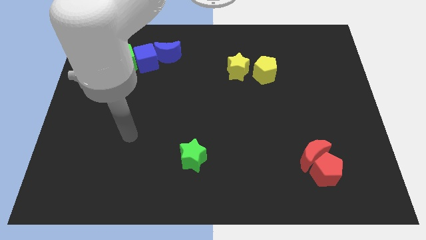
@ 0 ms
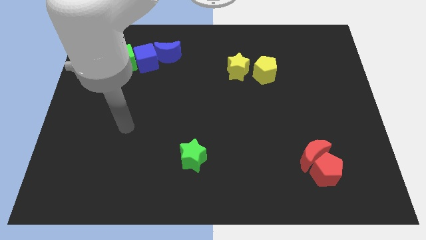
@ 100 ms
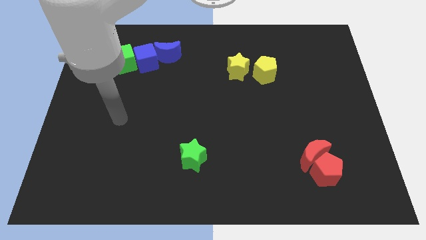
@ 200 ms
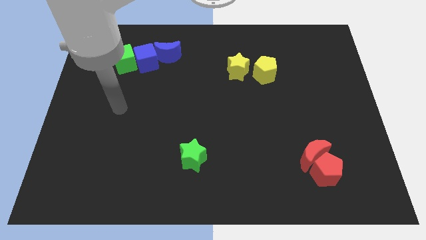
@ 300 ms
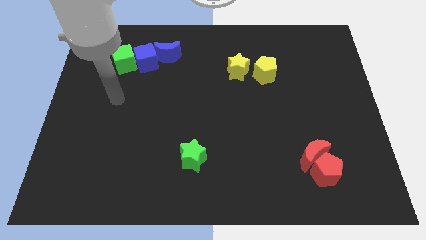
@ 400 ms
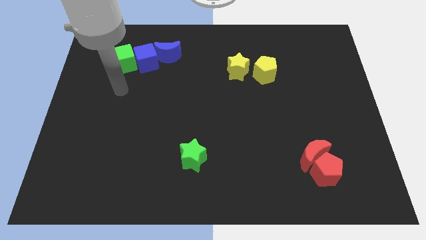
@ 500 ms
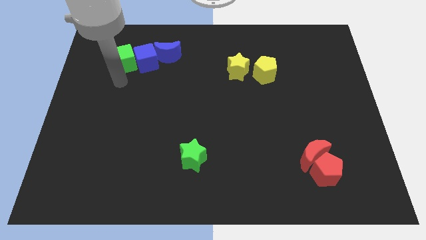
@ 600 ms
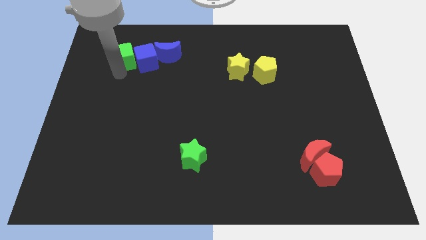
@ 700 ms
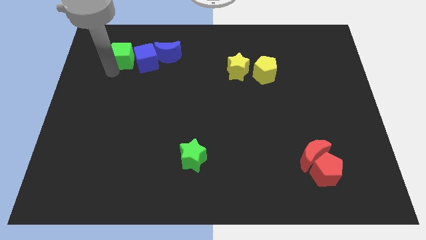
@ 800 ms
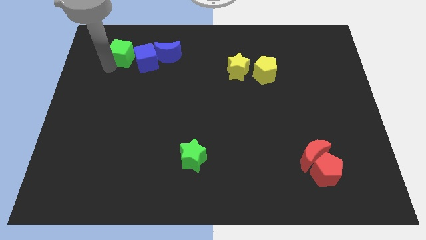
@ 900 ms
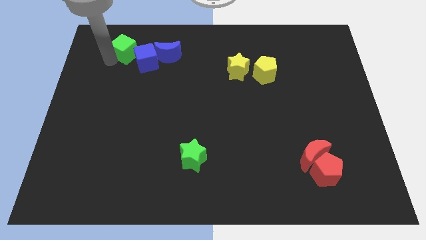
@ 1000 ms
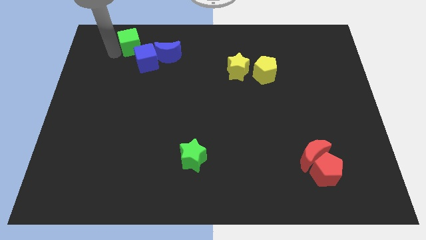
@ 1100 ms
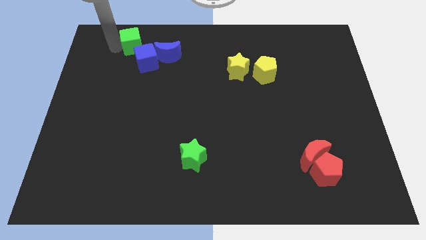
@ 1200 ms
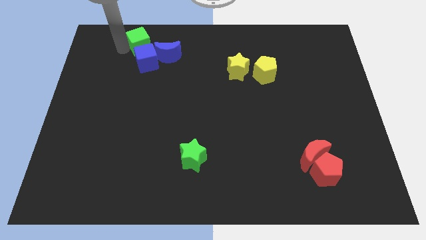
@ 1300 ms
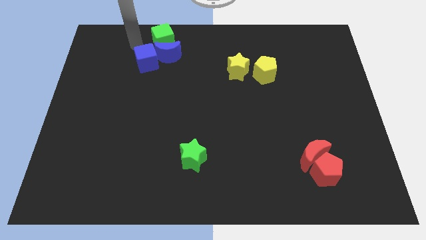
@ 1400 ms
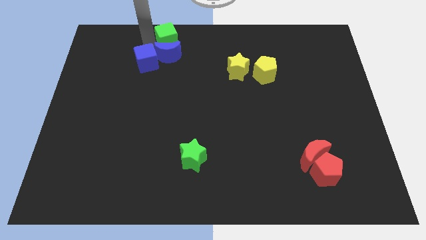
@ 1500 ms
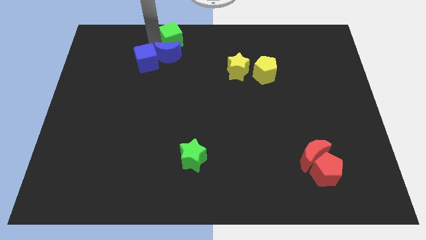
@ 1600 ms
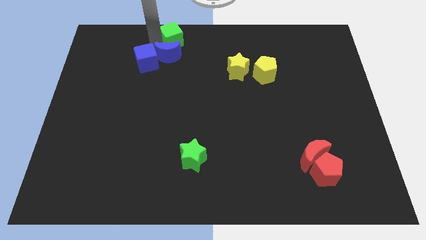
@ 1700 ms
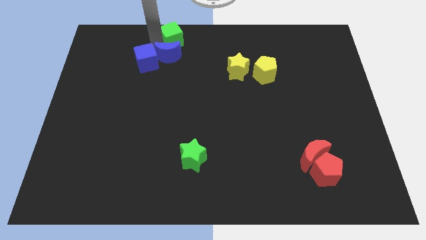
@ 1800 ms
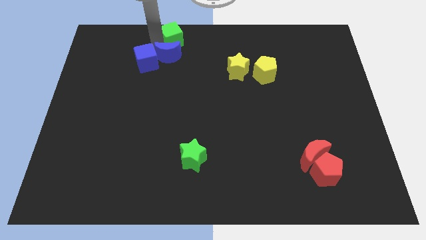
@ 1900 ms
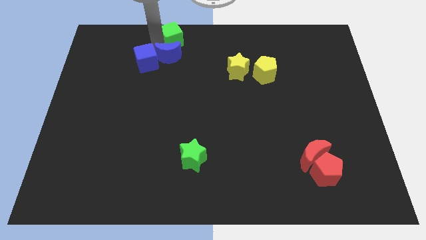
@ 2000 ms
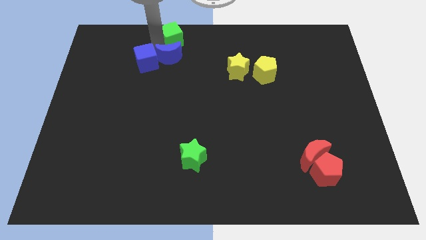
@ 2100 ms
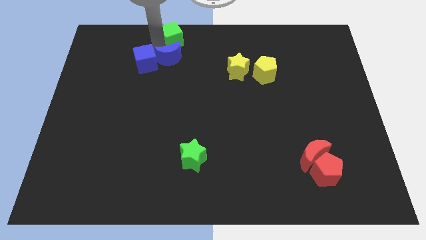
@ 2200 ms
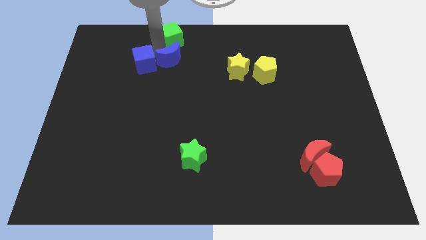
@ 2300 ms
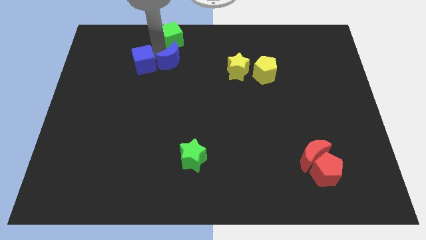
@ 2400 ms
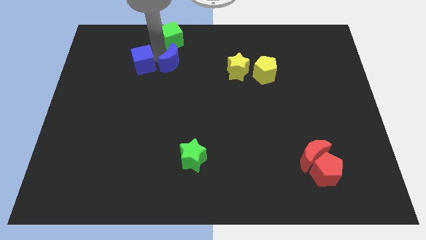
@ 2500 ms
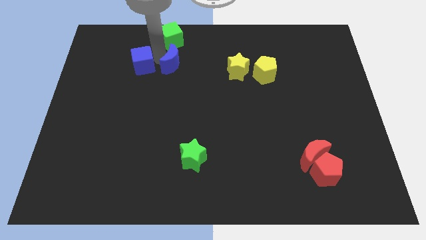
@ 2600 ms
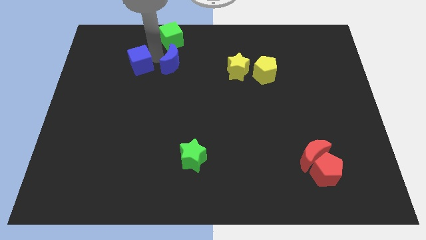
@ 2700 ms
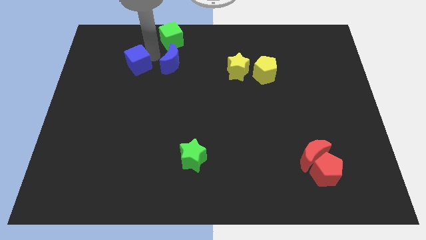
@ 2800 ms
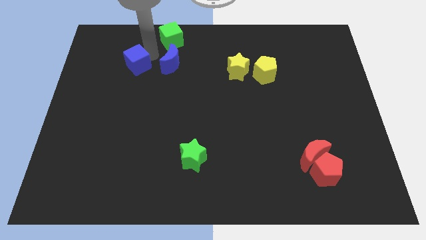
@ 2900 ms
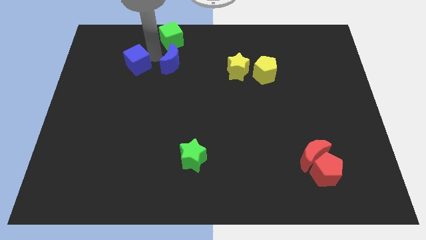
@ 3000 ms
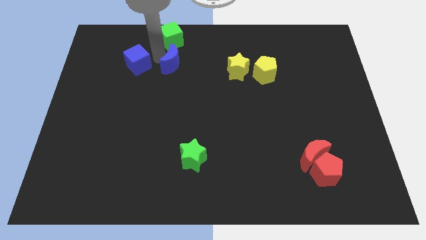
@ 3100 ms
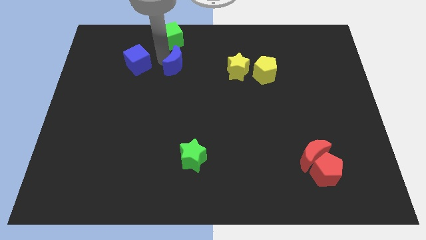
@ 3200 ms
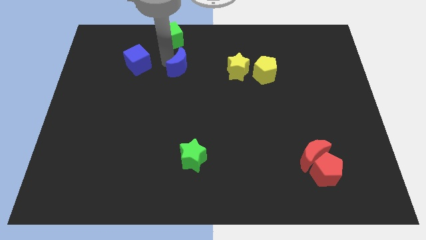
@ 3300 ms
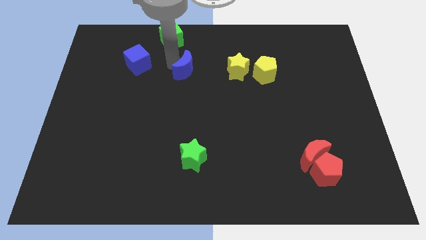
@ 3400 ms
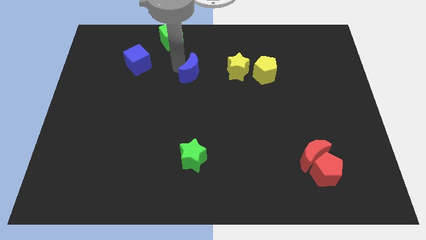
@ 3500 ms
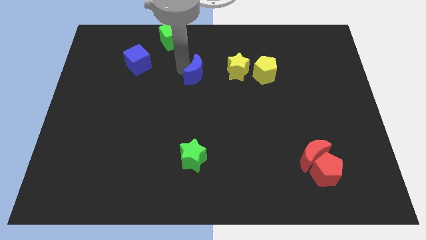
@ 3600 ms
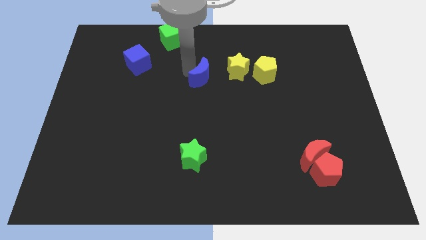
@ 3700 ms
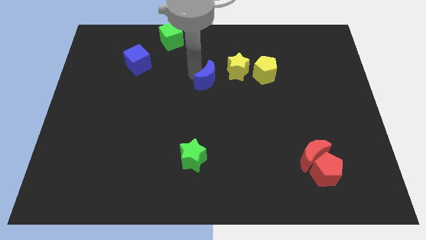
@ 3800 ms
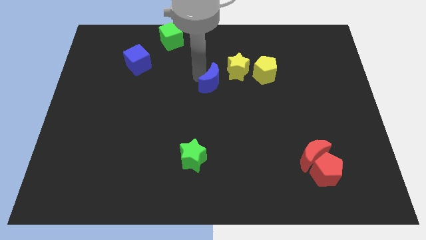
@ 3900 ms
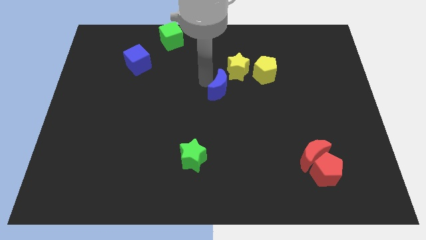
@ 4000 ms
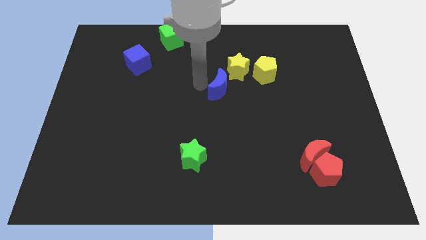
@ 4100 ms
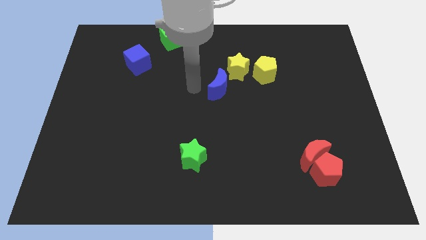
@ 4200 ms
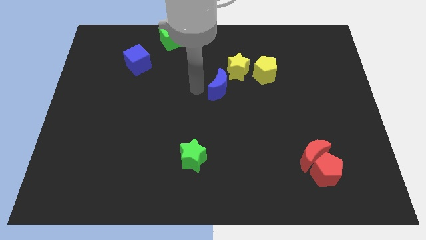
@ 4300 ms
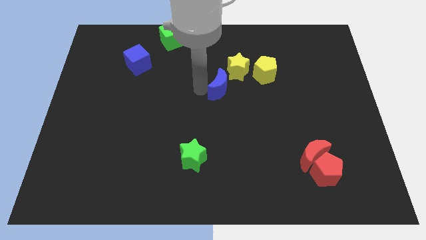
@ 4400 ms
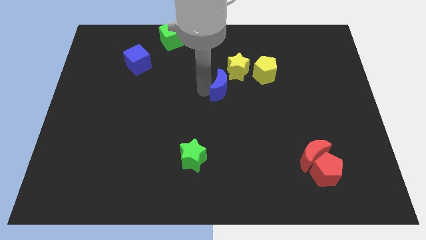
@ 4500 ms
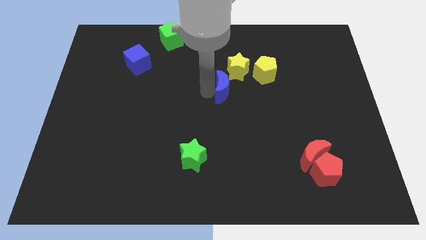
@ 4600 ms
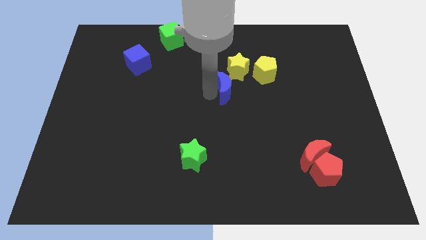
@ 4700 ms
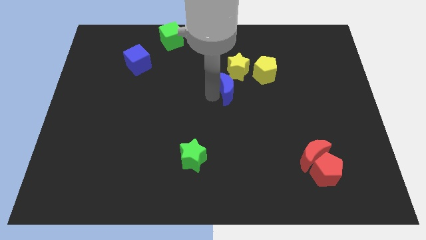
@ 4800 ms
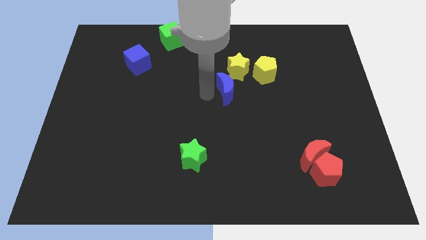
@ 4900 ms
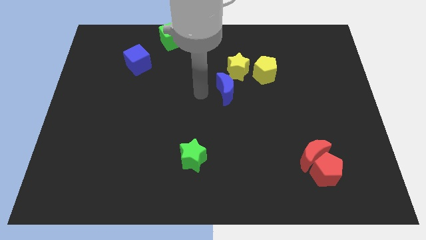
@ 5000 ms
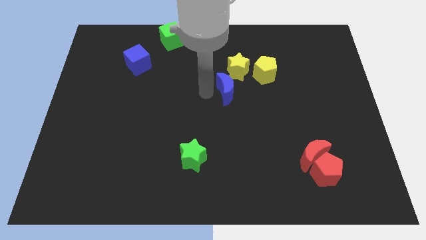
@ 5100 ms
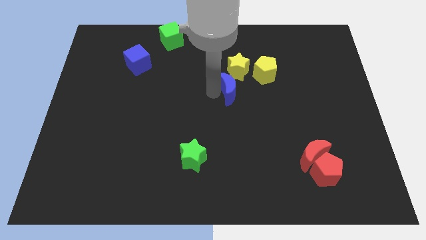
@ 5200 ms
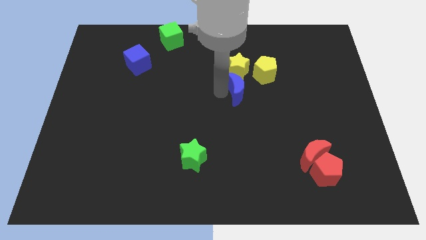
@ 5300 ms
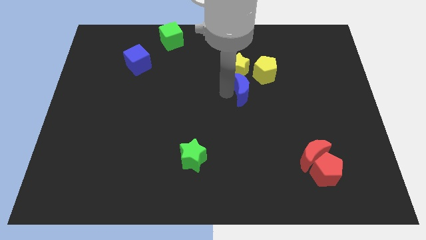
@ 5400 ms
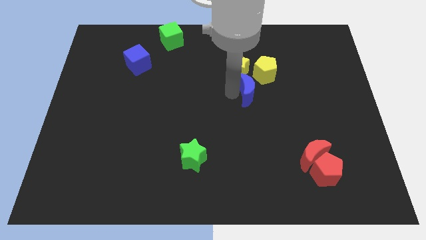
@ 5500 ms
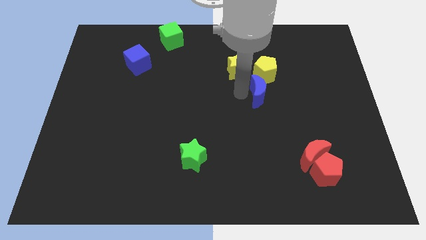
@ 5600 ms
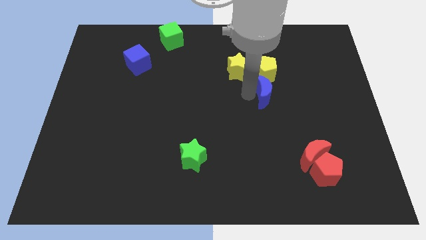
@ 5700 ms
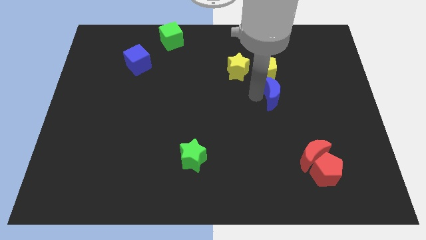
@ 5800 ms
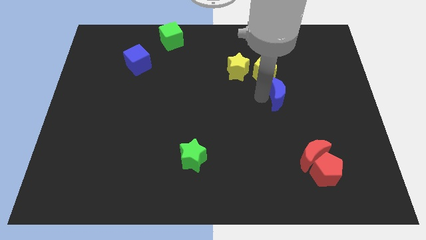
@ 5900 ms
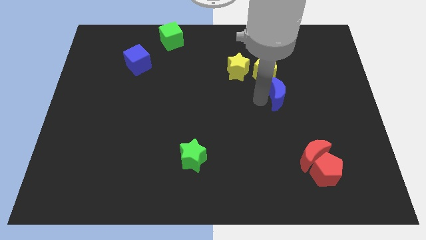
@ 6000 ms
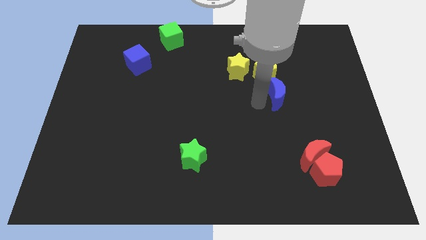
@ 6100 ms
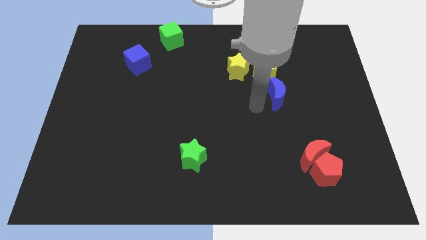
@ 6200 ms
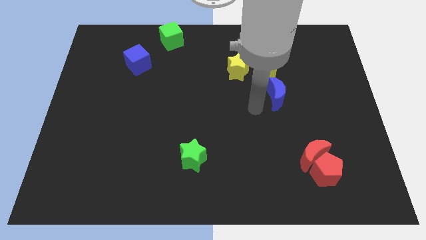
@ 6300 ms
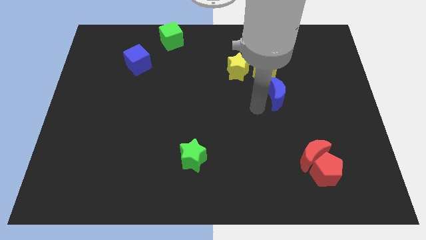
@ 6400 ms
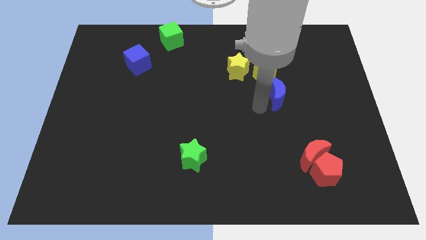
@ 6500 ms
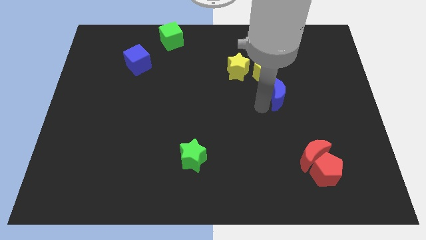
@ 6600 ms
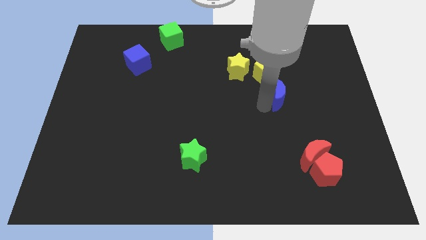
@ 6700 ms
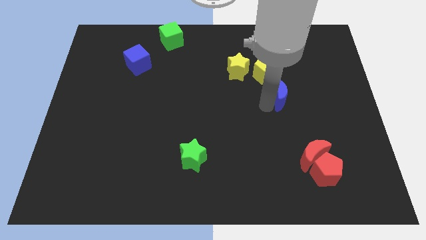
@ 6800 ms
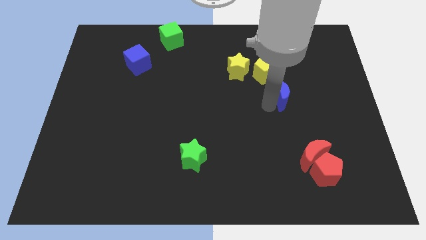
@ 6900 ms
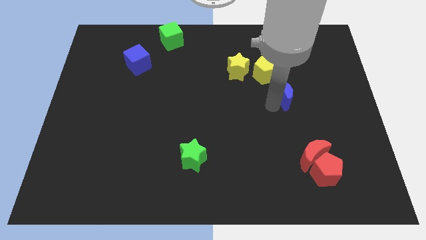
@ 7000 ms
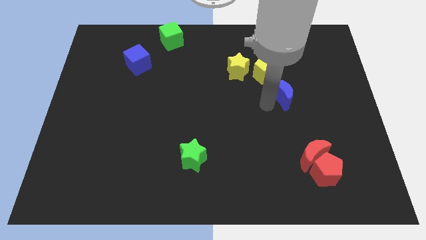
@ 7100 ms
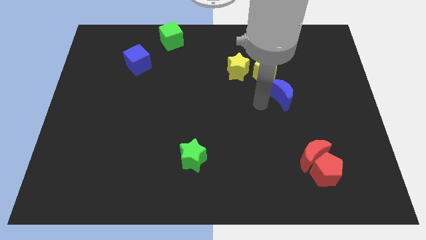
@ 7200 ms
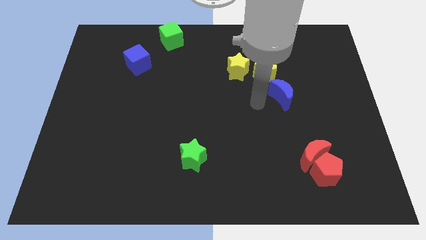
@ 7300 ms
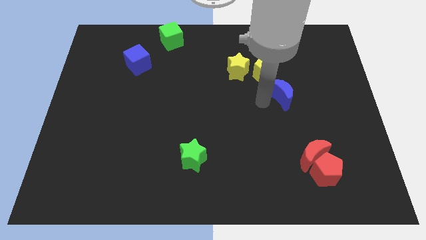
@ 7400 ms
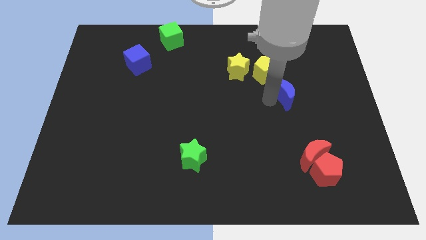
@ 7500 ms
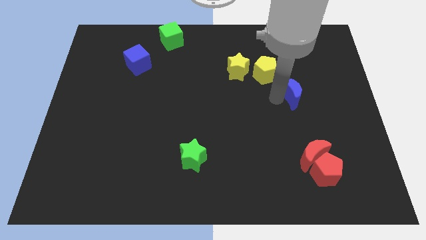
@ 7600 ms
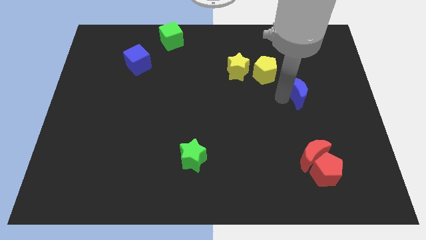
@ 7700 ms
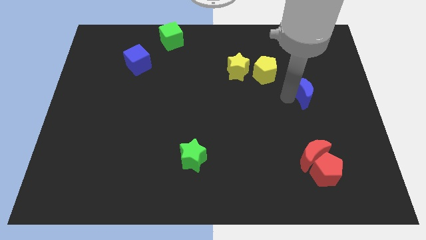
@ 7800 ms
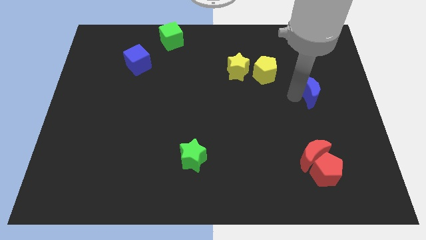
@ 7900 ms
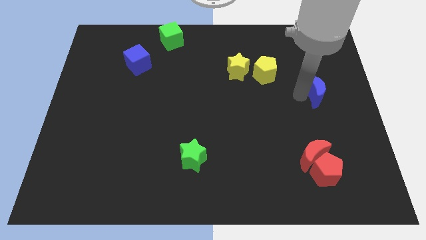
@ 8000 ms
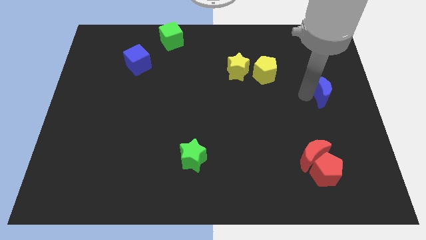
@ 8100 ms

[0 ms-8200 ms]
slide the blue moon to the right side of the board
